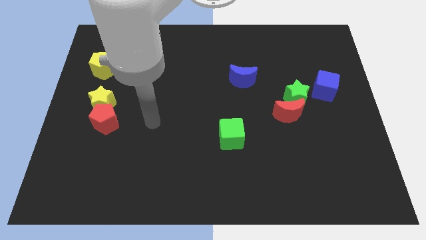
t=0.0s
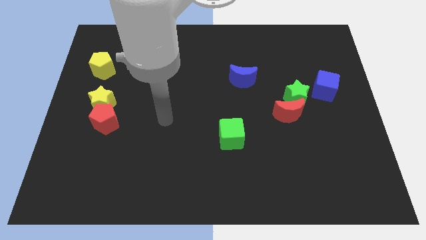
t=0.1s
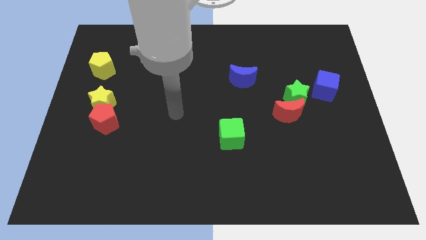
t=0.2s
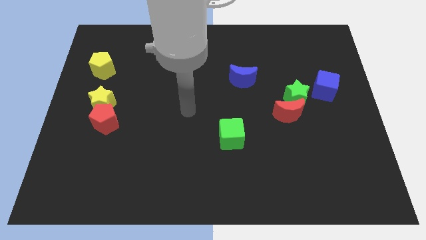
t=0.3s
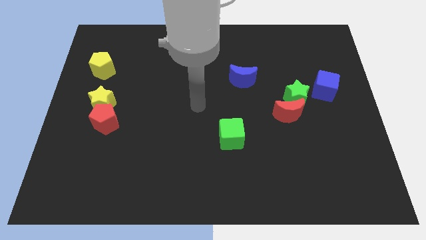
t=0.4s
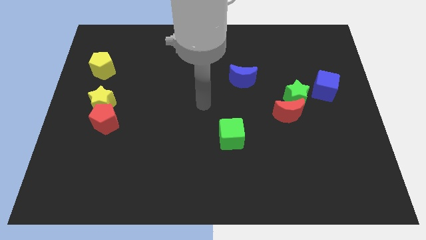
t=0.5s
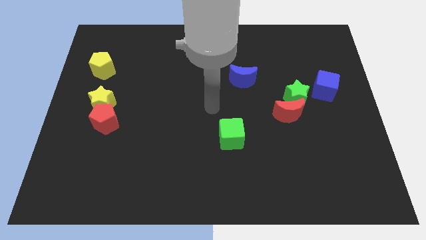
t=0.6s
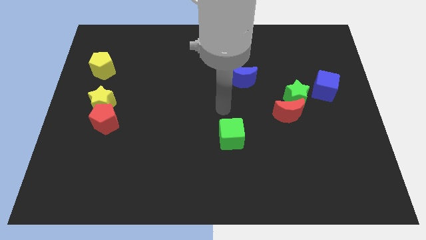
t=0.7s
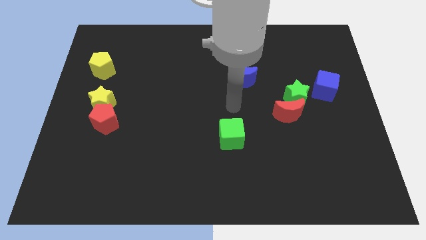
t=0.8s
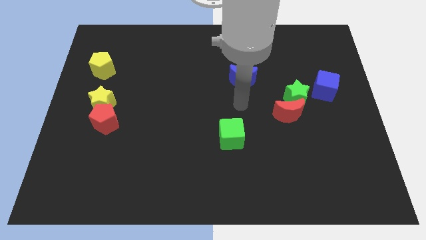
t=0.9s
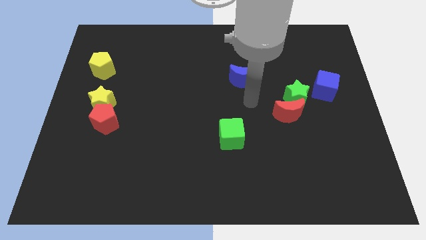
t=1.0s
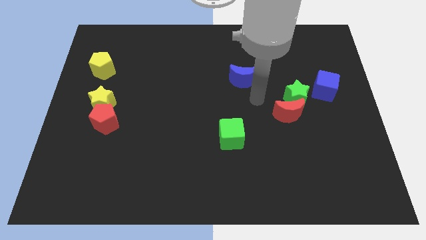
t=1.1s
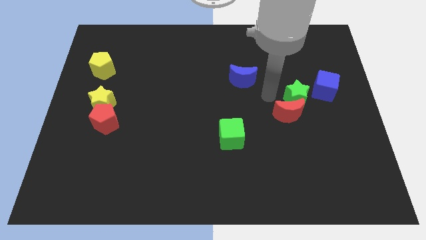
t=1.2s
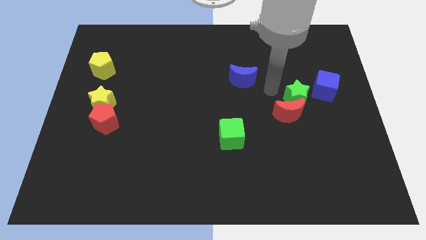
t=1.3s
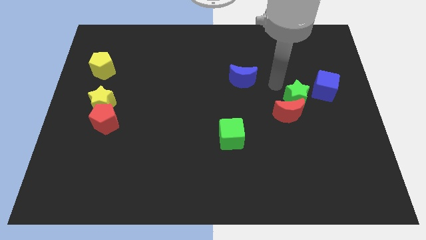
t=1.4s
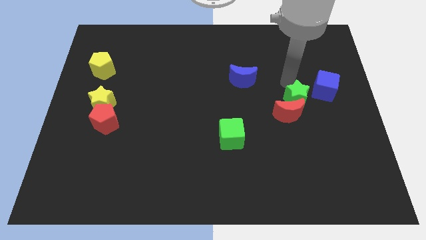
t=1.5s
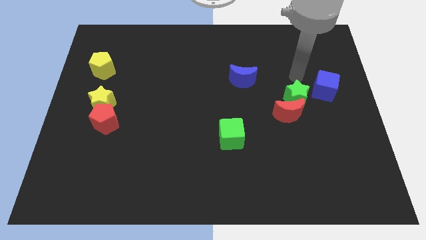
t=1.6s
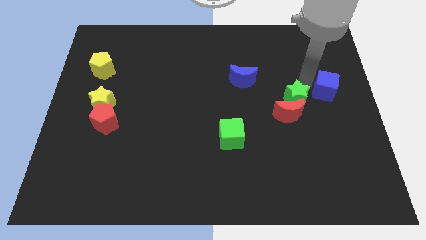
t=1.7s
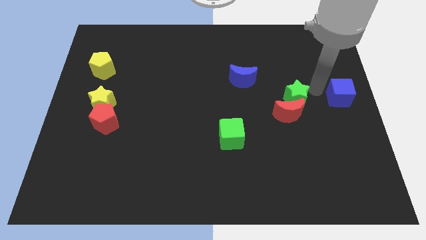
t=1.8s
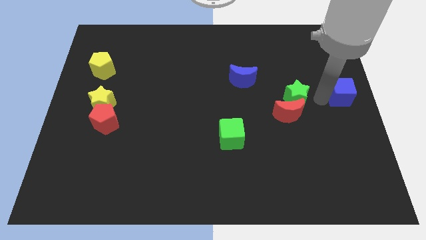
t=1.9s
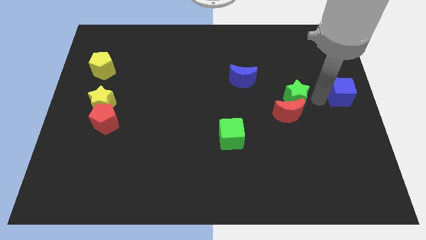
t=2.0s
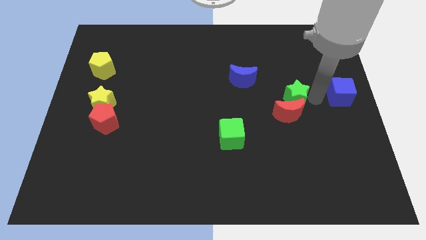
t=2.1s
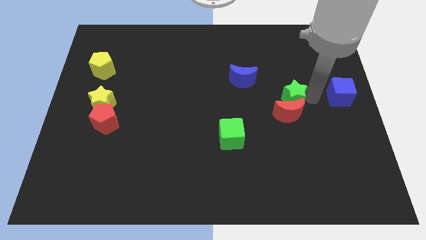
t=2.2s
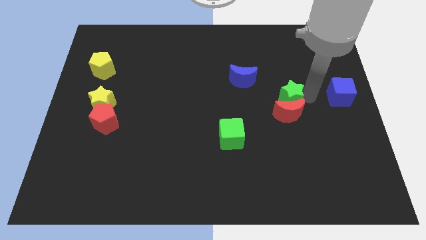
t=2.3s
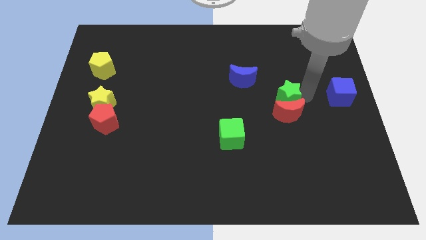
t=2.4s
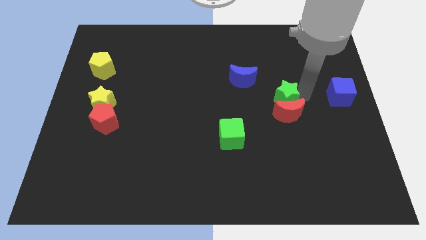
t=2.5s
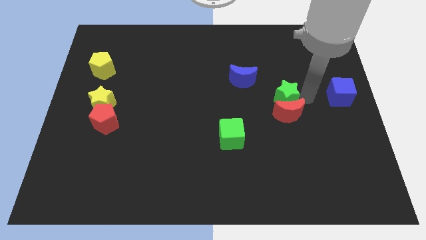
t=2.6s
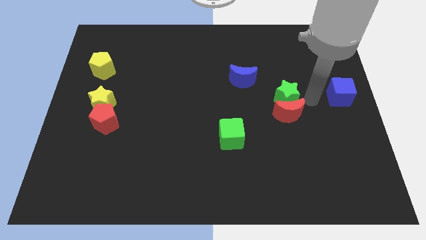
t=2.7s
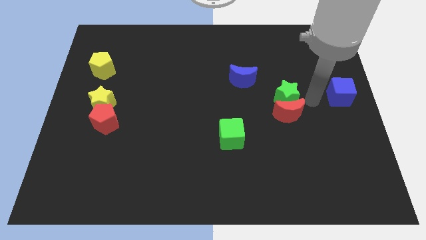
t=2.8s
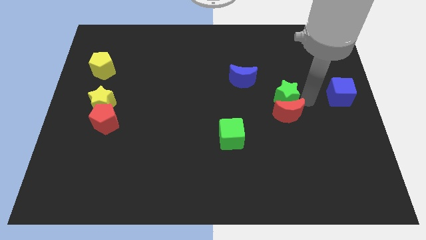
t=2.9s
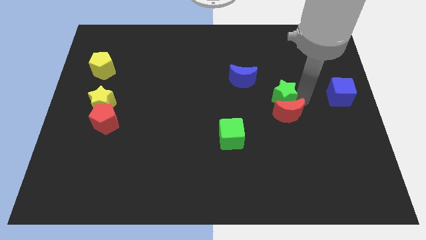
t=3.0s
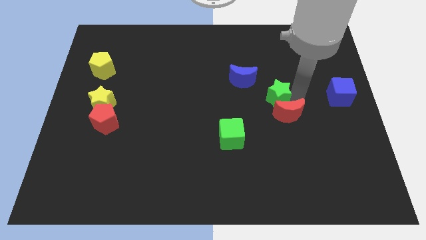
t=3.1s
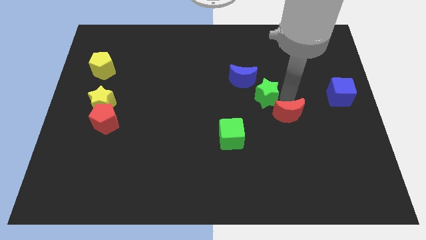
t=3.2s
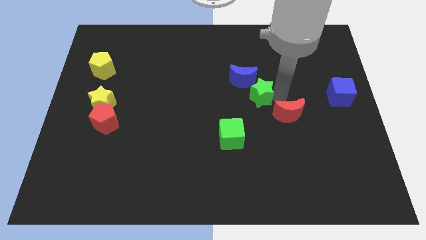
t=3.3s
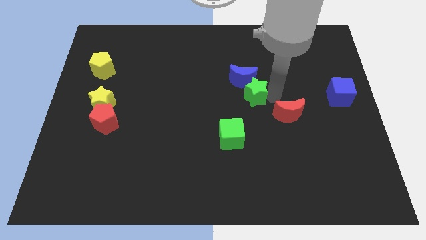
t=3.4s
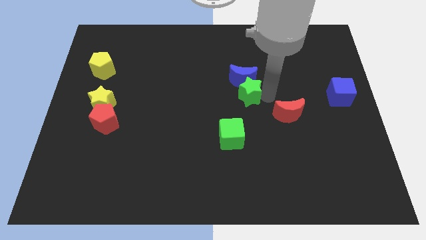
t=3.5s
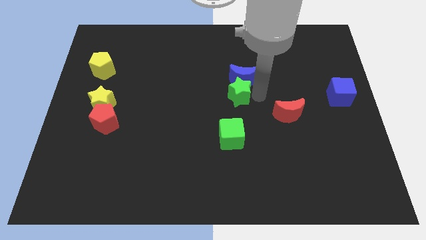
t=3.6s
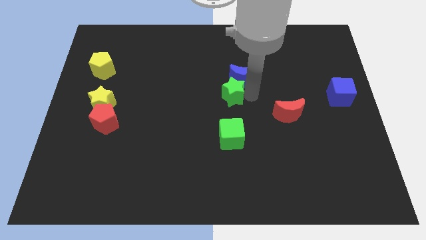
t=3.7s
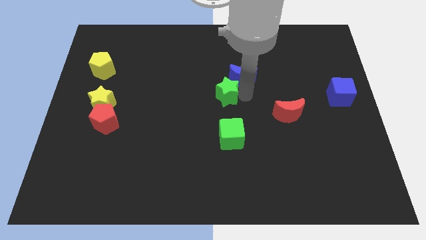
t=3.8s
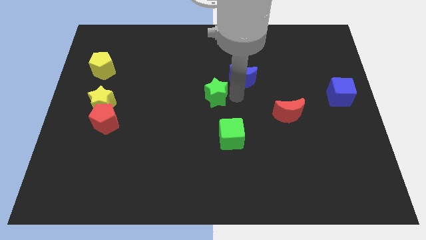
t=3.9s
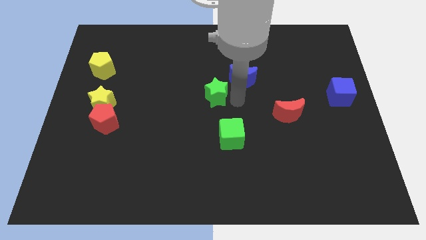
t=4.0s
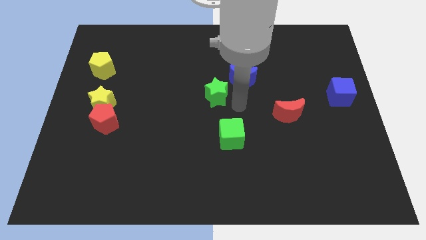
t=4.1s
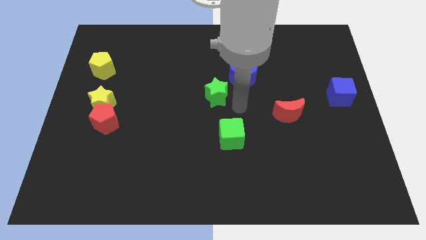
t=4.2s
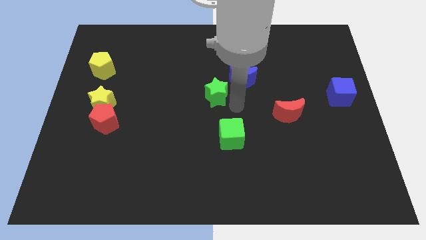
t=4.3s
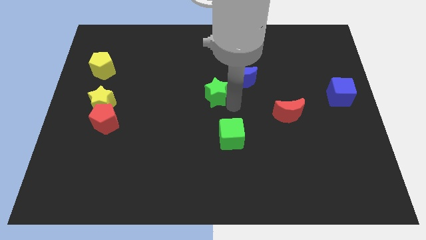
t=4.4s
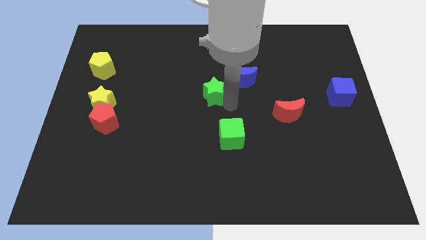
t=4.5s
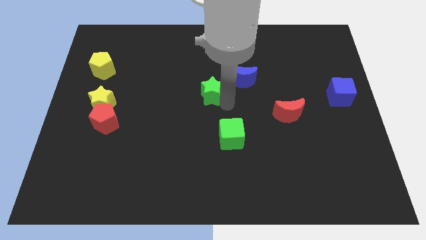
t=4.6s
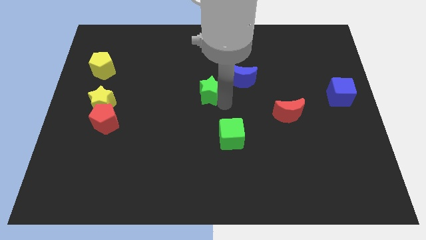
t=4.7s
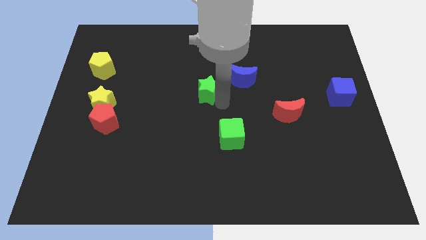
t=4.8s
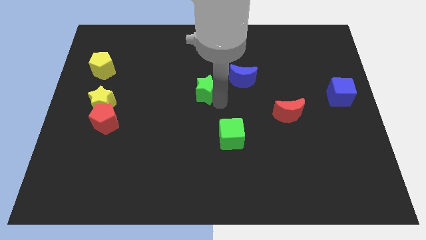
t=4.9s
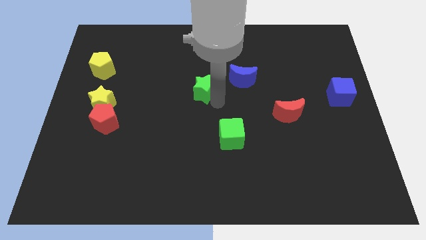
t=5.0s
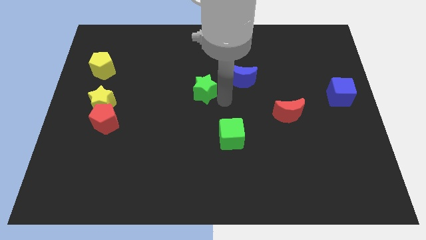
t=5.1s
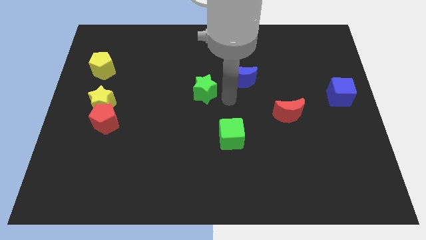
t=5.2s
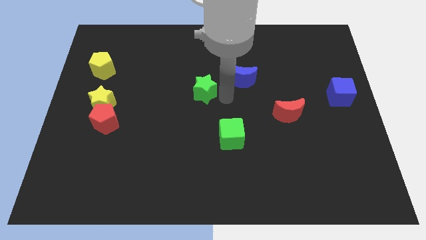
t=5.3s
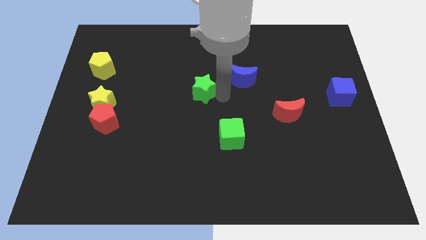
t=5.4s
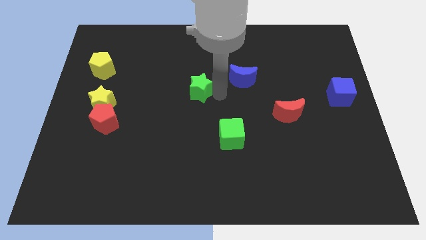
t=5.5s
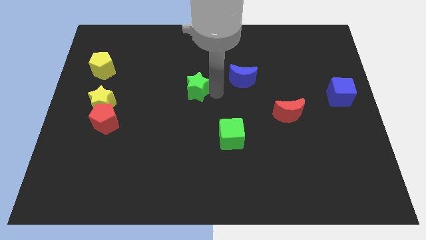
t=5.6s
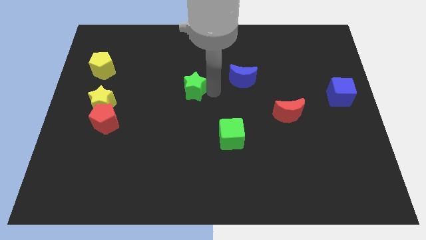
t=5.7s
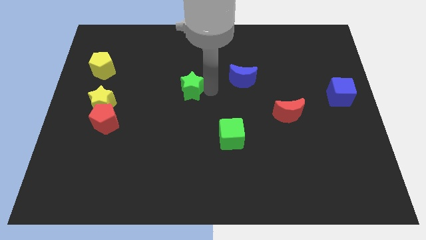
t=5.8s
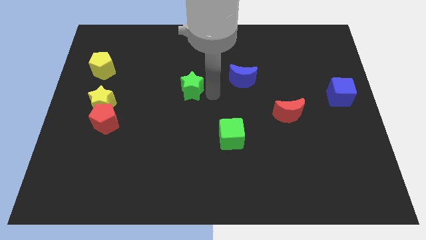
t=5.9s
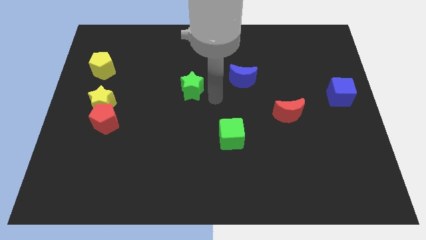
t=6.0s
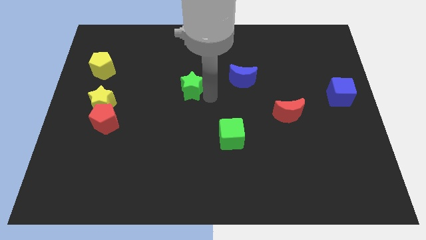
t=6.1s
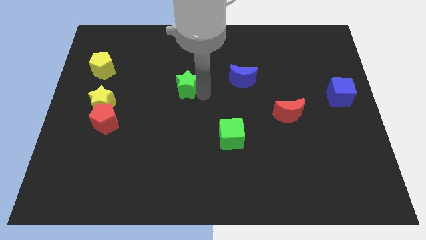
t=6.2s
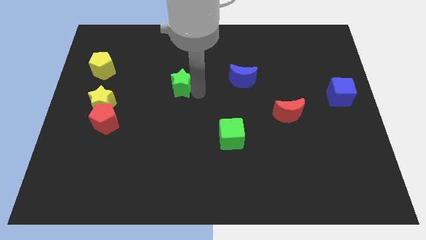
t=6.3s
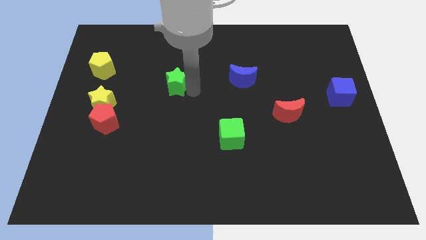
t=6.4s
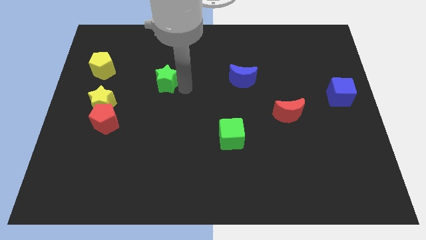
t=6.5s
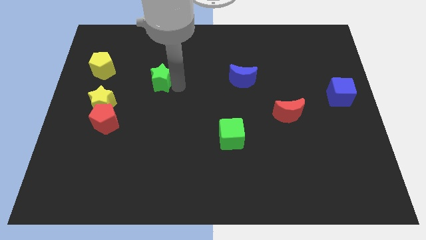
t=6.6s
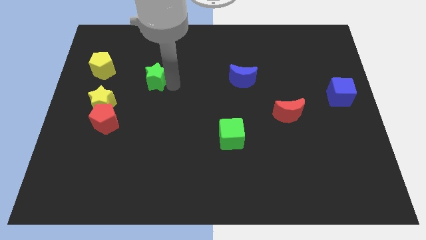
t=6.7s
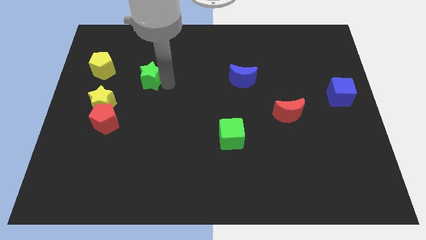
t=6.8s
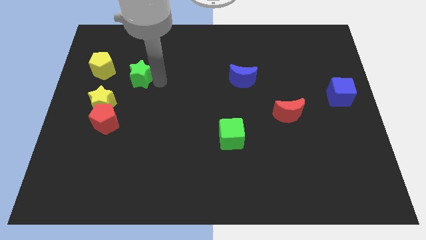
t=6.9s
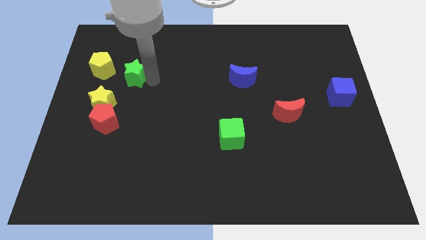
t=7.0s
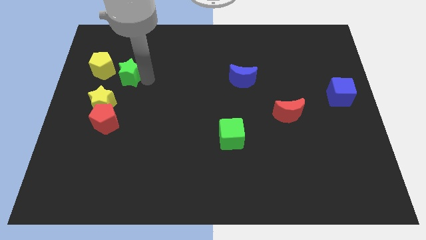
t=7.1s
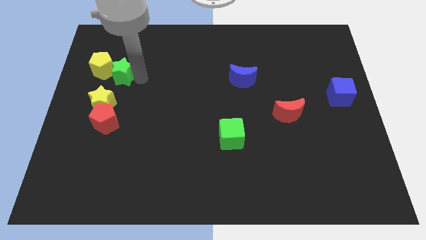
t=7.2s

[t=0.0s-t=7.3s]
move the green star close to the yellow pentagon
